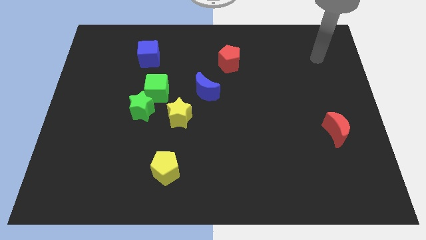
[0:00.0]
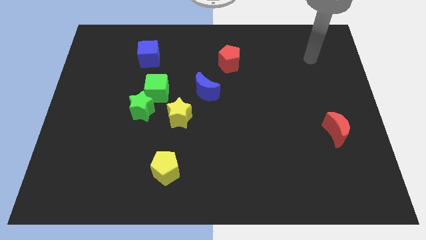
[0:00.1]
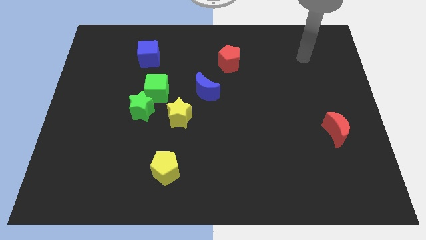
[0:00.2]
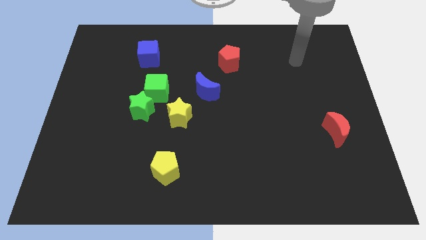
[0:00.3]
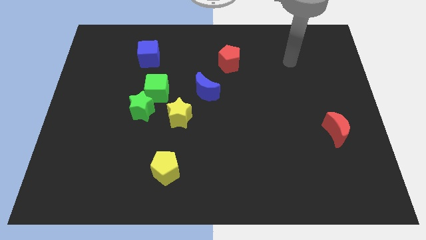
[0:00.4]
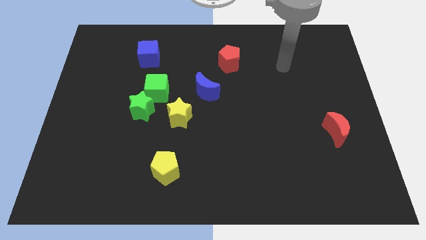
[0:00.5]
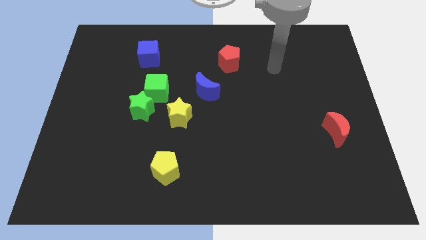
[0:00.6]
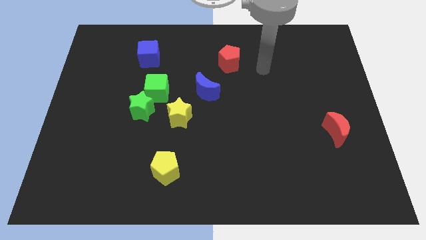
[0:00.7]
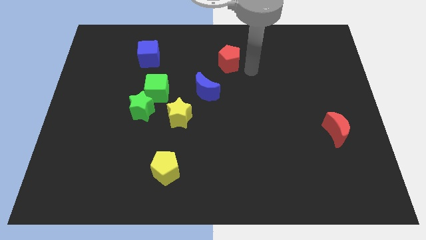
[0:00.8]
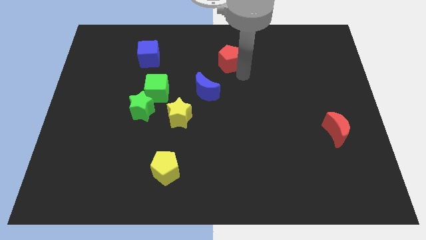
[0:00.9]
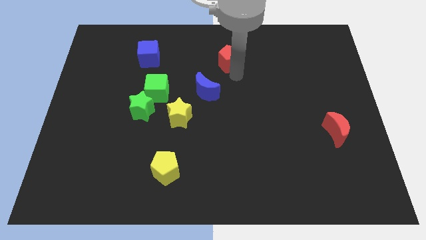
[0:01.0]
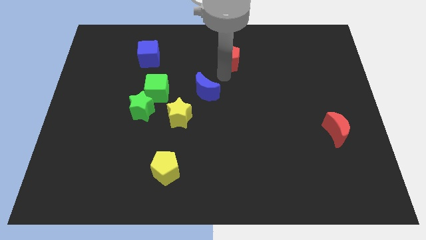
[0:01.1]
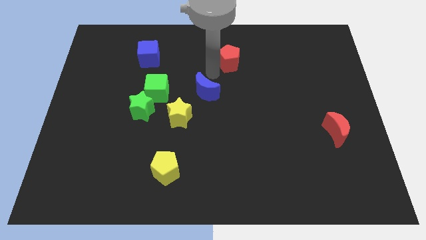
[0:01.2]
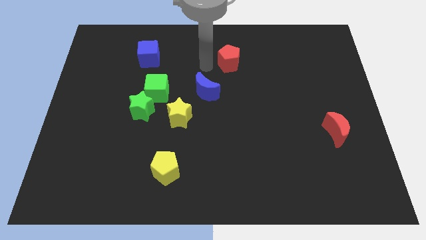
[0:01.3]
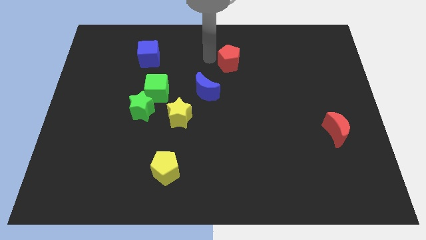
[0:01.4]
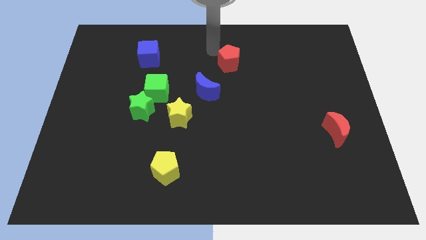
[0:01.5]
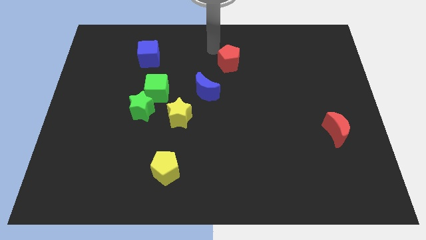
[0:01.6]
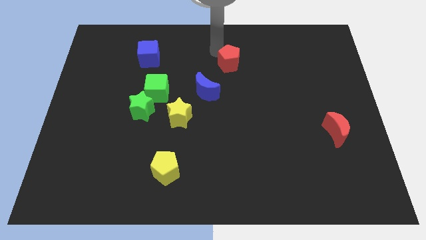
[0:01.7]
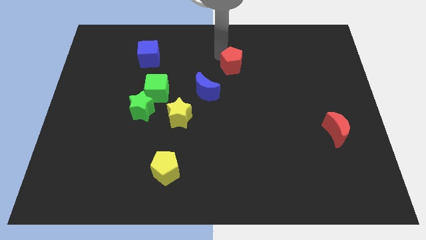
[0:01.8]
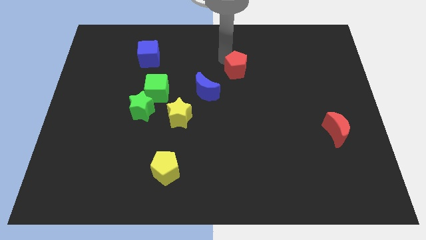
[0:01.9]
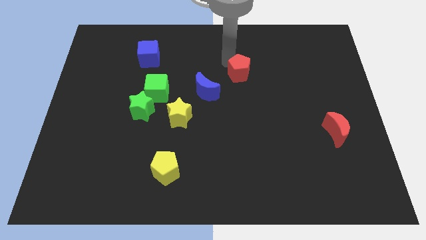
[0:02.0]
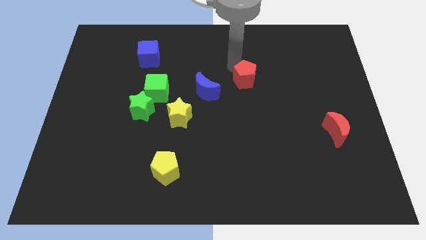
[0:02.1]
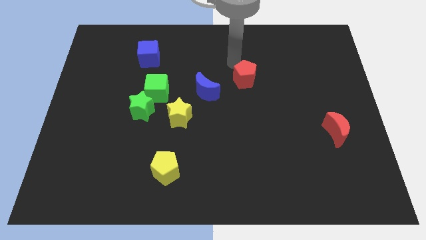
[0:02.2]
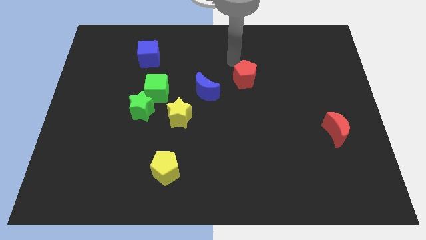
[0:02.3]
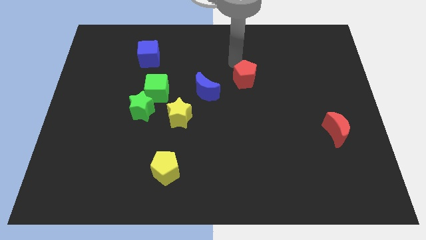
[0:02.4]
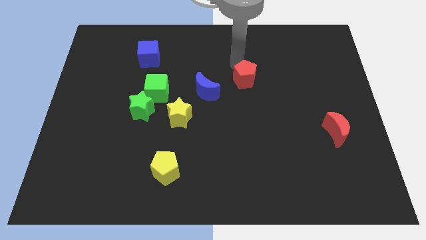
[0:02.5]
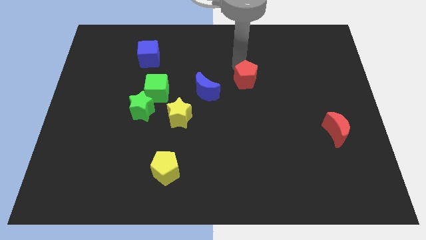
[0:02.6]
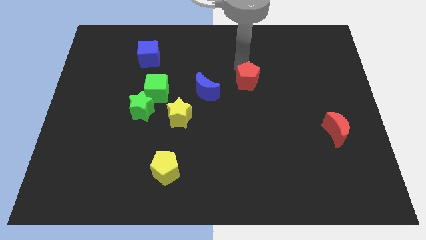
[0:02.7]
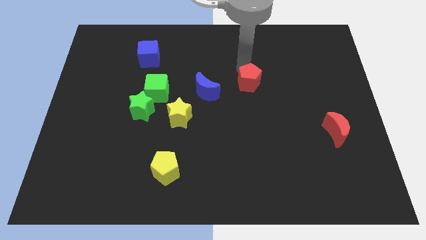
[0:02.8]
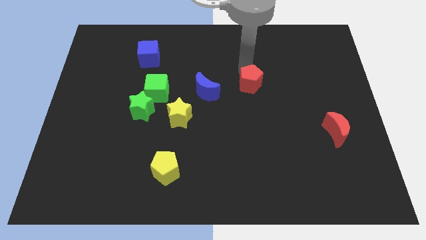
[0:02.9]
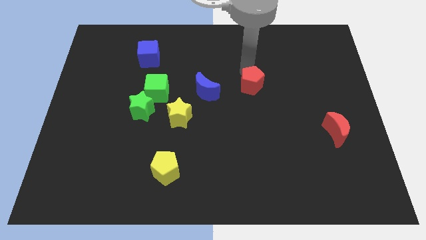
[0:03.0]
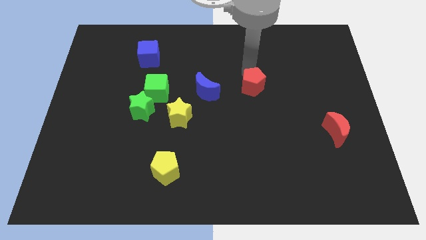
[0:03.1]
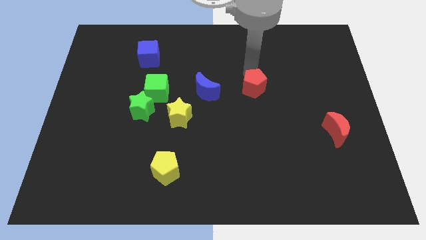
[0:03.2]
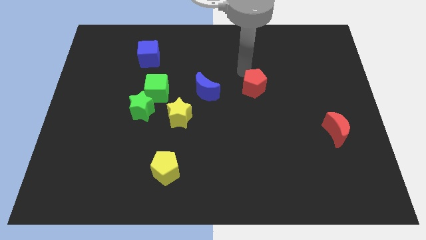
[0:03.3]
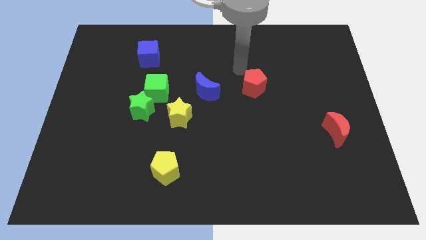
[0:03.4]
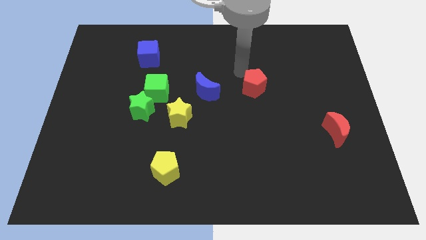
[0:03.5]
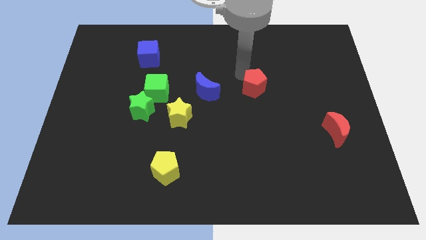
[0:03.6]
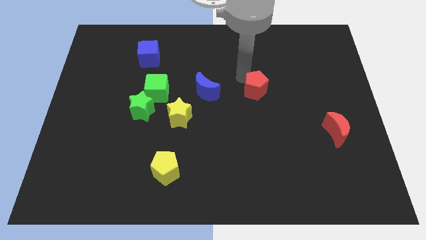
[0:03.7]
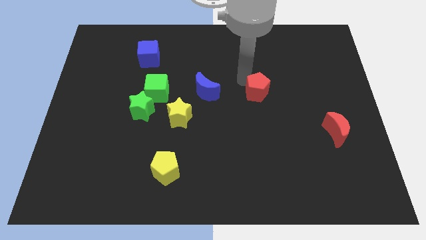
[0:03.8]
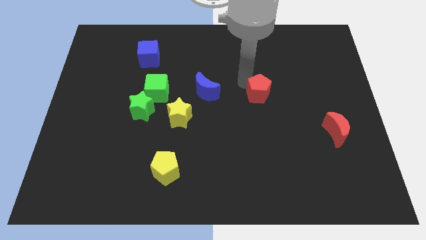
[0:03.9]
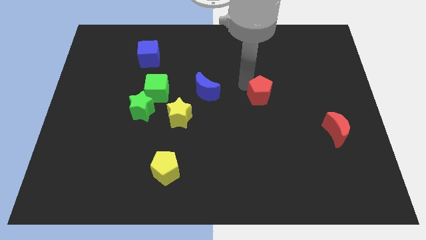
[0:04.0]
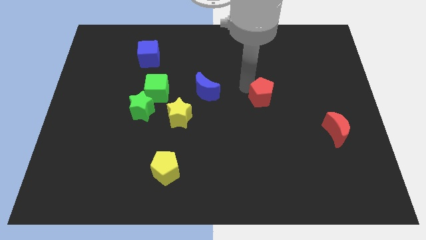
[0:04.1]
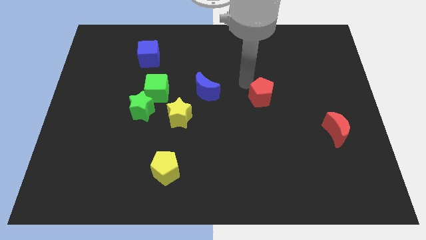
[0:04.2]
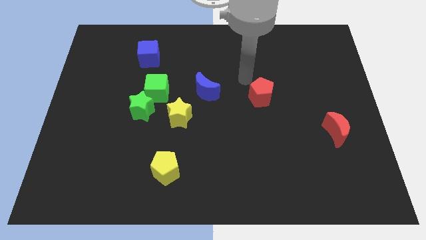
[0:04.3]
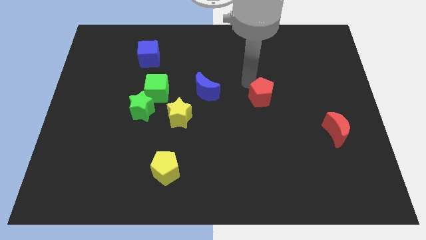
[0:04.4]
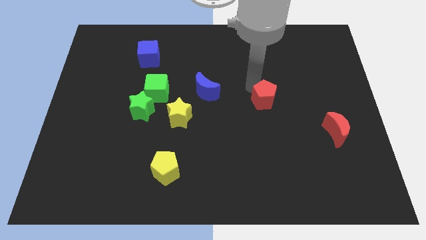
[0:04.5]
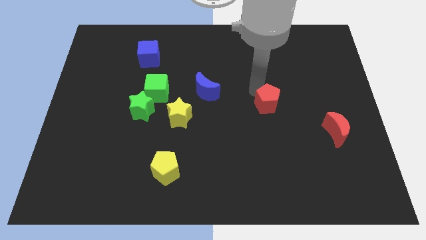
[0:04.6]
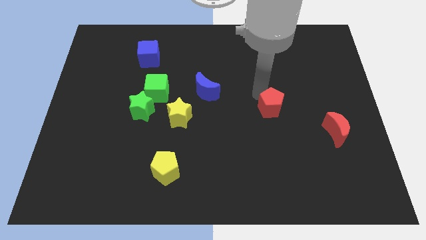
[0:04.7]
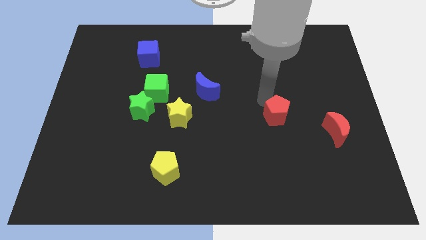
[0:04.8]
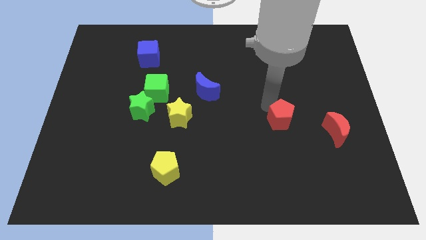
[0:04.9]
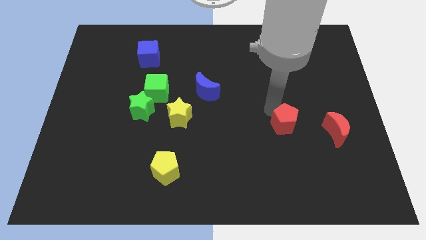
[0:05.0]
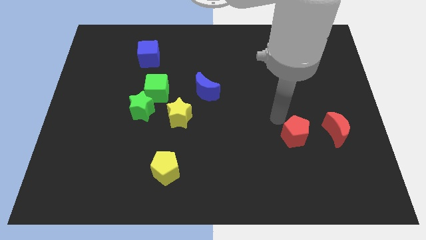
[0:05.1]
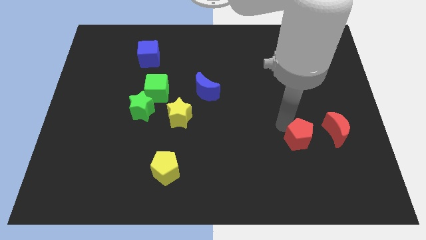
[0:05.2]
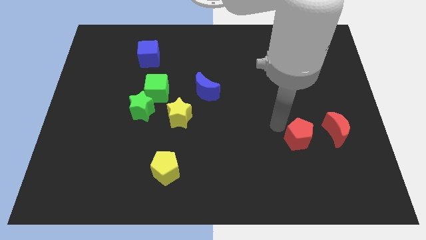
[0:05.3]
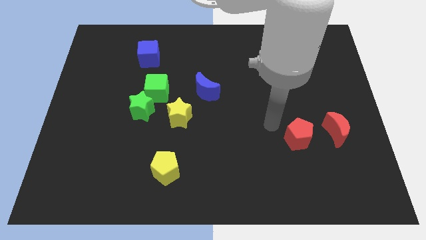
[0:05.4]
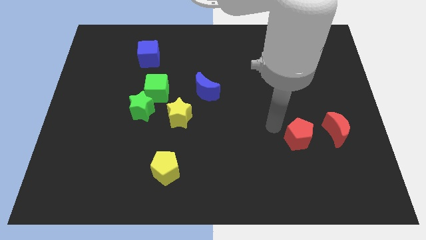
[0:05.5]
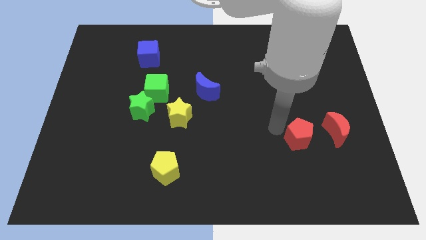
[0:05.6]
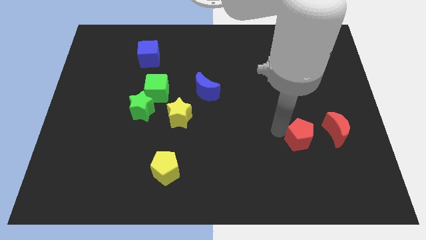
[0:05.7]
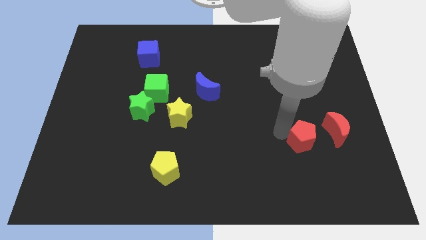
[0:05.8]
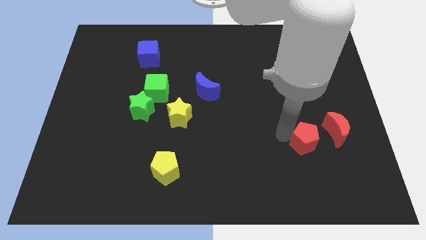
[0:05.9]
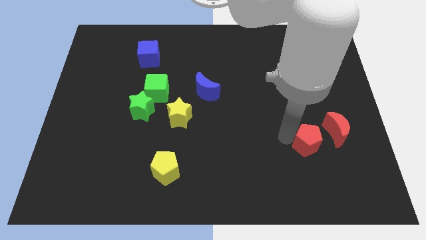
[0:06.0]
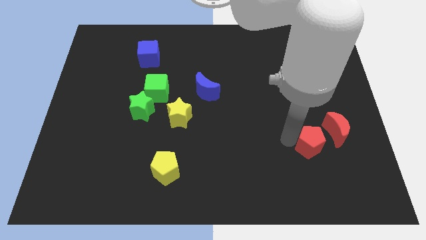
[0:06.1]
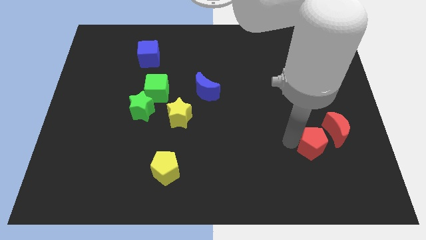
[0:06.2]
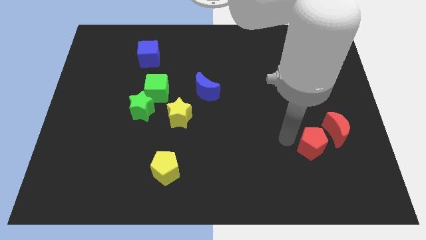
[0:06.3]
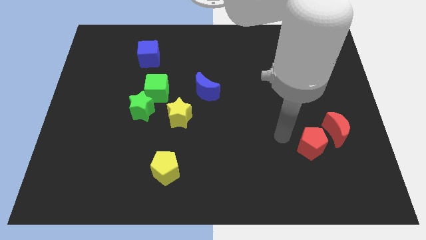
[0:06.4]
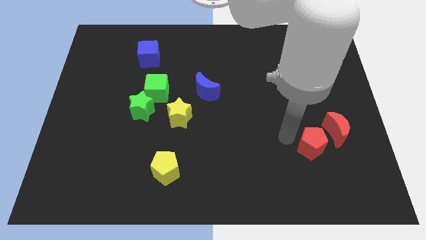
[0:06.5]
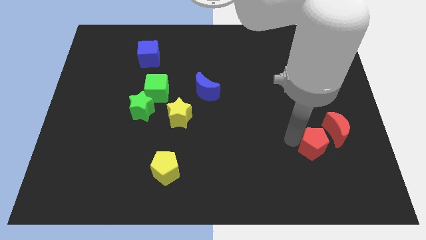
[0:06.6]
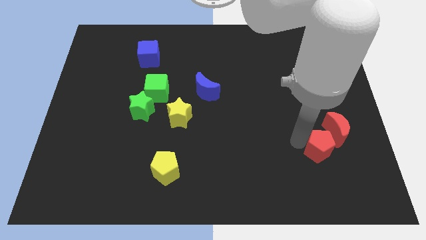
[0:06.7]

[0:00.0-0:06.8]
slide the red pentagon to the bottom of the red moon
